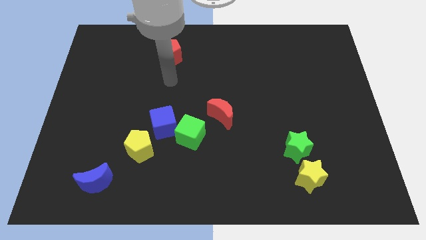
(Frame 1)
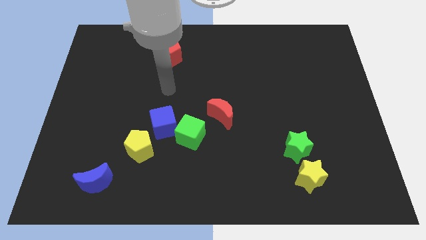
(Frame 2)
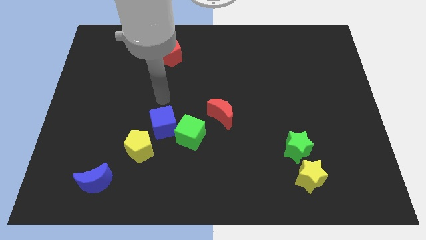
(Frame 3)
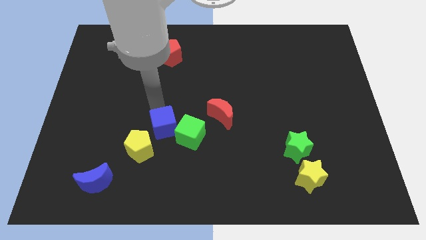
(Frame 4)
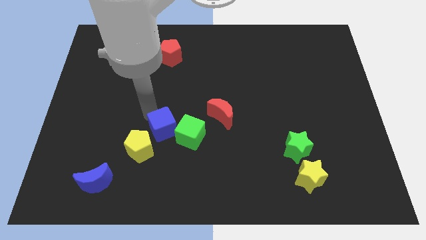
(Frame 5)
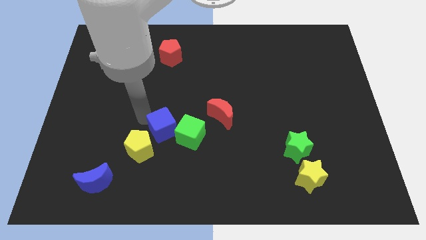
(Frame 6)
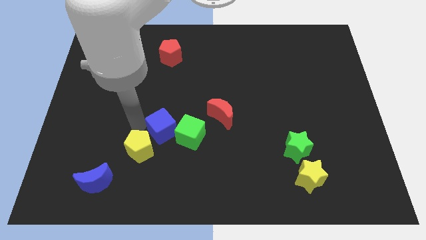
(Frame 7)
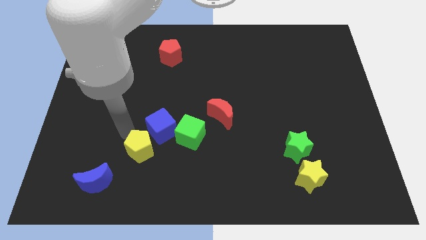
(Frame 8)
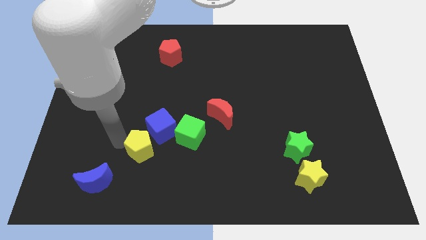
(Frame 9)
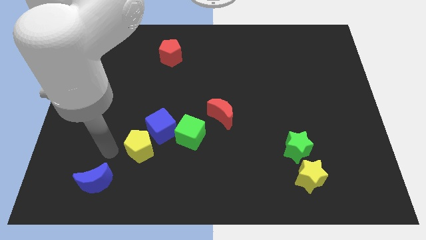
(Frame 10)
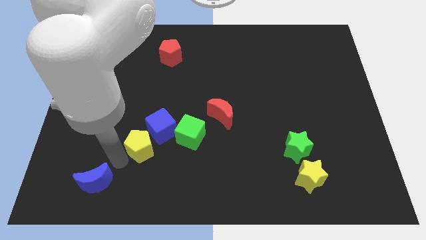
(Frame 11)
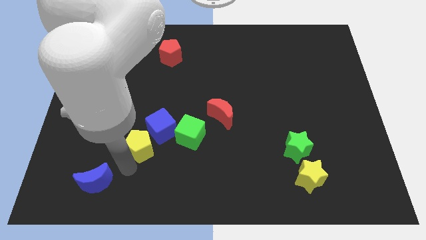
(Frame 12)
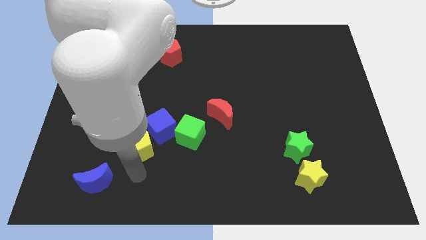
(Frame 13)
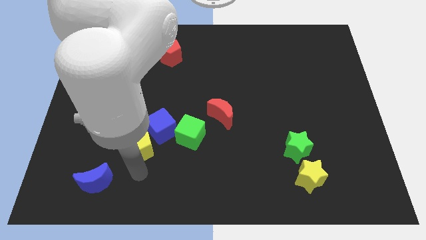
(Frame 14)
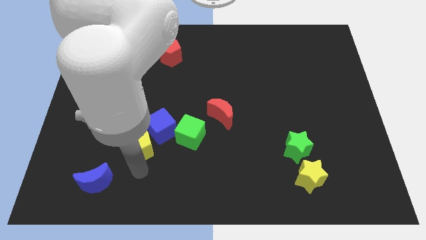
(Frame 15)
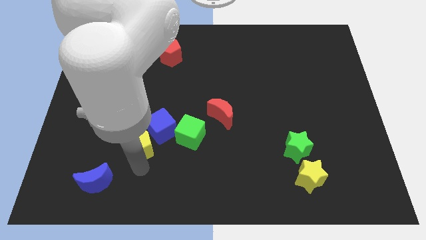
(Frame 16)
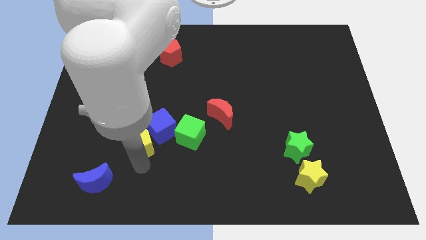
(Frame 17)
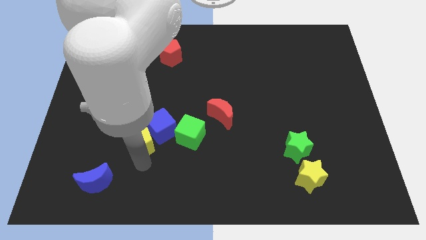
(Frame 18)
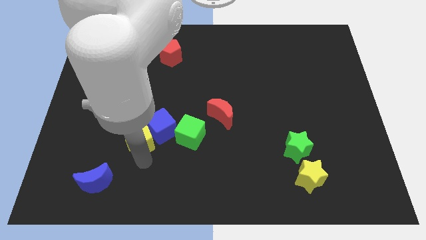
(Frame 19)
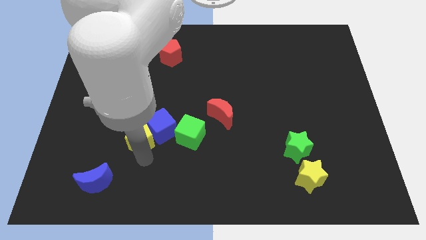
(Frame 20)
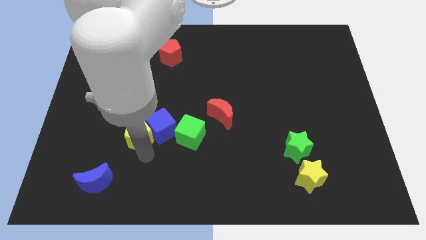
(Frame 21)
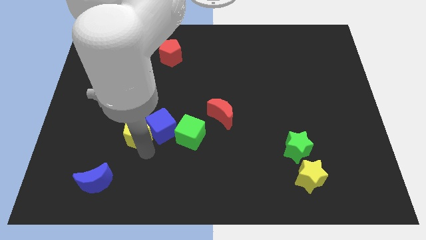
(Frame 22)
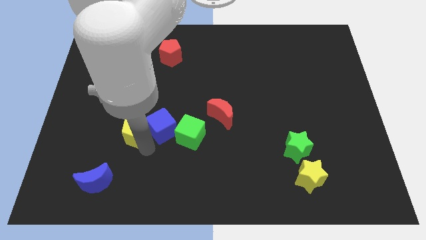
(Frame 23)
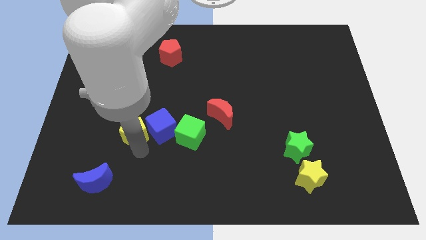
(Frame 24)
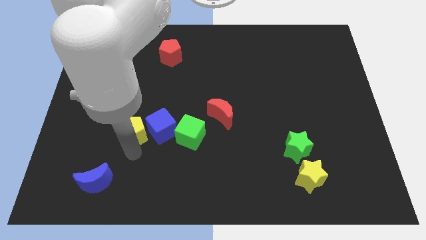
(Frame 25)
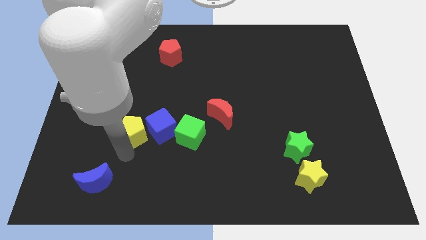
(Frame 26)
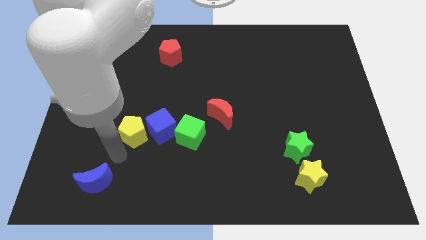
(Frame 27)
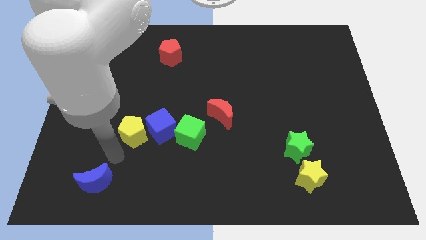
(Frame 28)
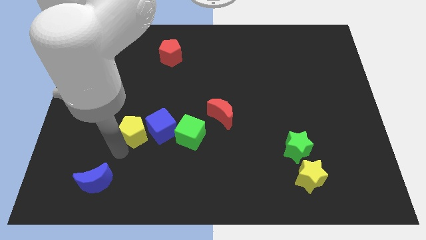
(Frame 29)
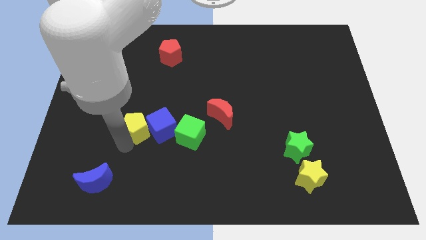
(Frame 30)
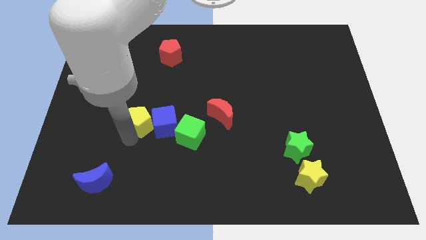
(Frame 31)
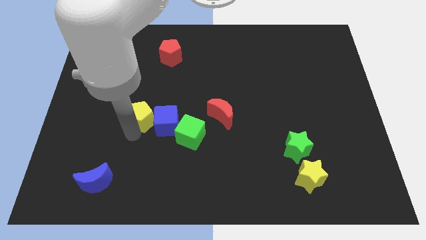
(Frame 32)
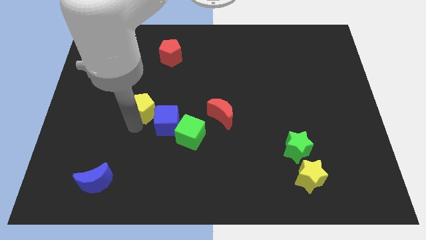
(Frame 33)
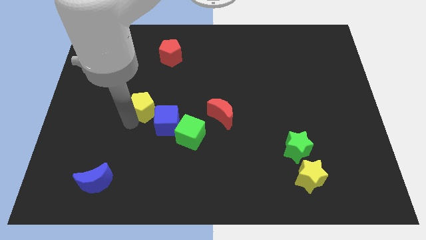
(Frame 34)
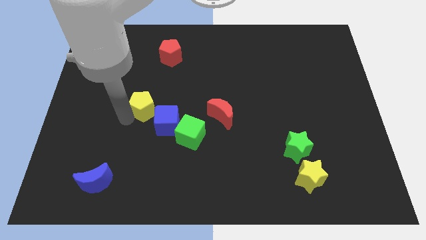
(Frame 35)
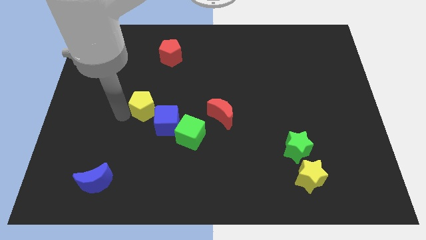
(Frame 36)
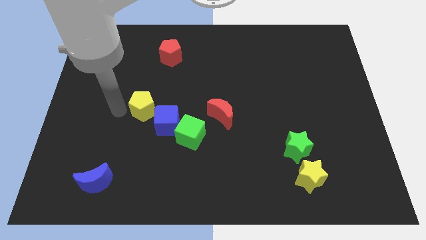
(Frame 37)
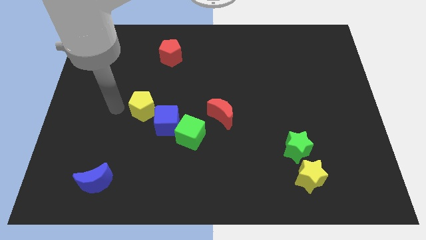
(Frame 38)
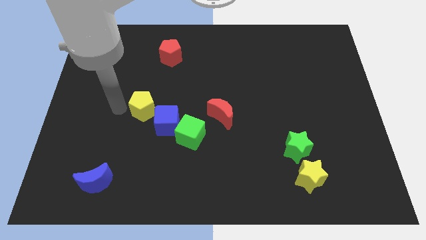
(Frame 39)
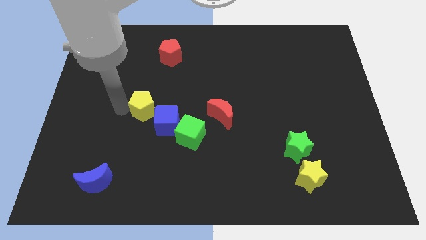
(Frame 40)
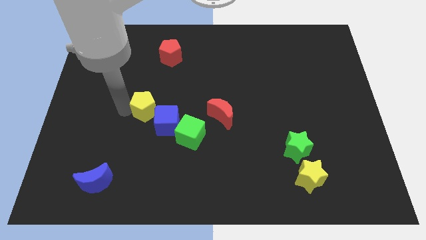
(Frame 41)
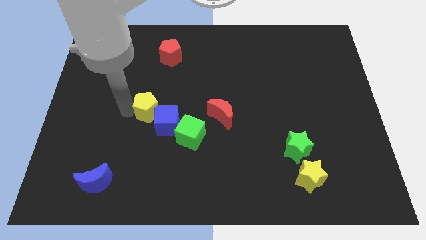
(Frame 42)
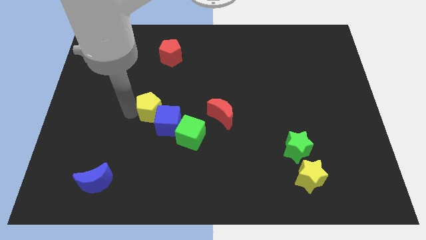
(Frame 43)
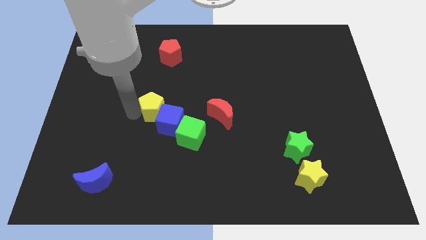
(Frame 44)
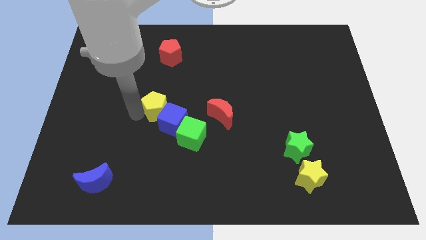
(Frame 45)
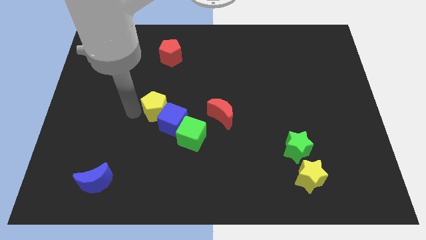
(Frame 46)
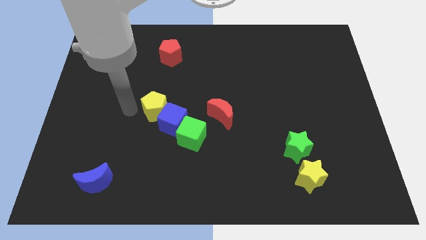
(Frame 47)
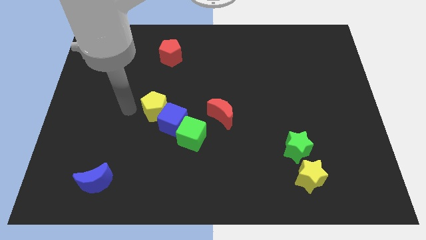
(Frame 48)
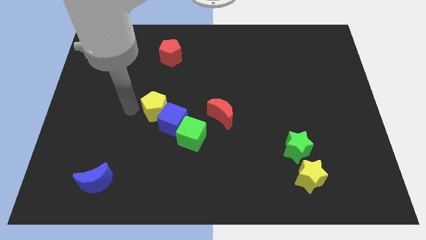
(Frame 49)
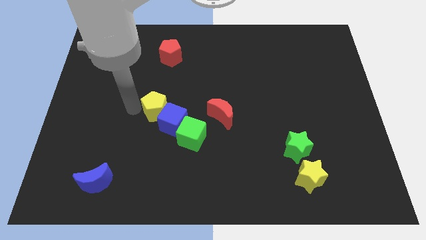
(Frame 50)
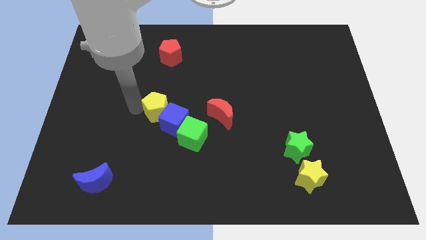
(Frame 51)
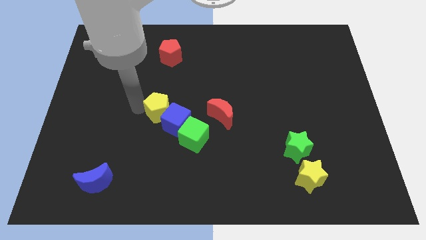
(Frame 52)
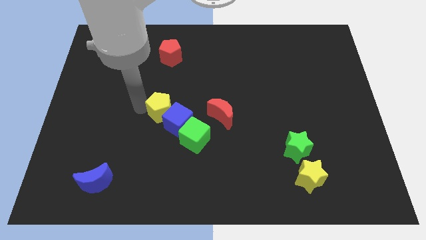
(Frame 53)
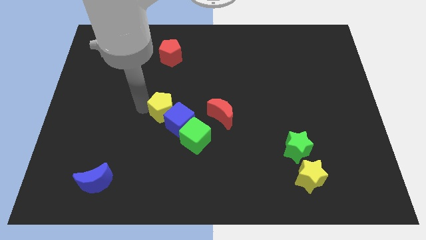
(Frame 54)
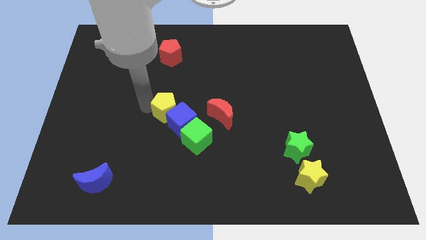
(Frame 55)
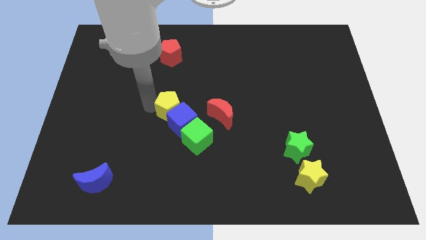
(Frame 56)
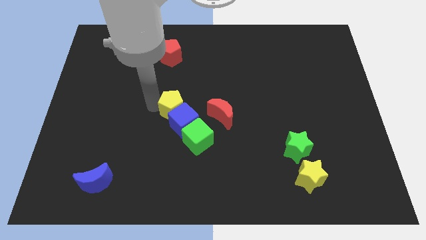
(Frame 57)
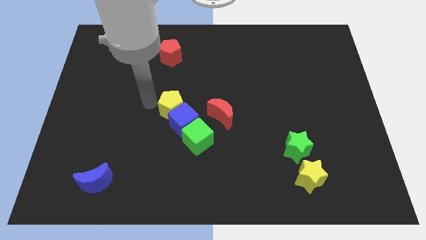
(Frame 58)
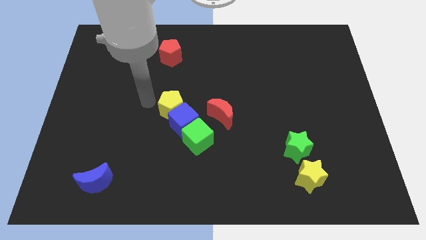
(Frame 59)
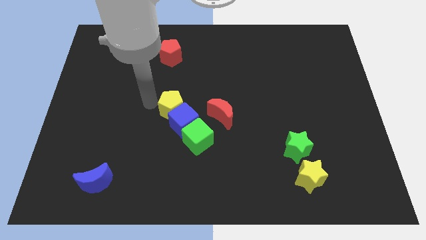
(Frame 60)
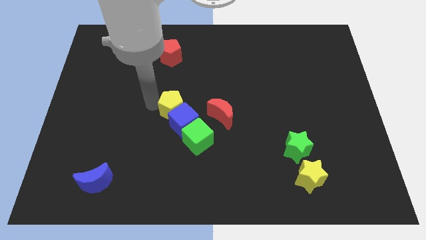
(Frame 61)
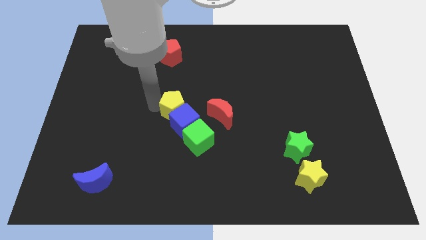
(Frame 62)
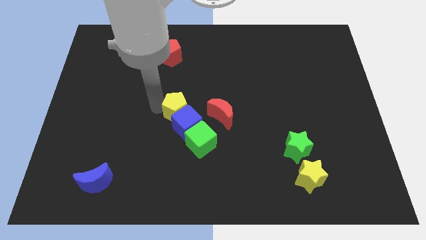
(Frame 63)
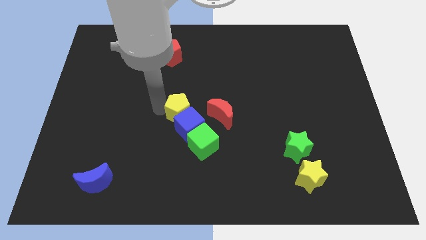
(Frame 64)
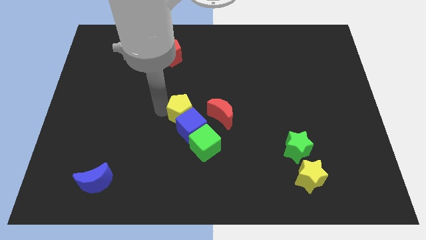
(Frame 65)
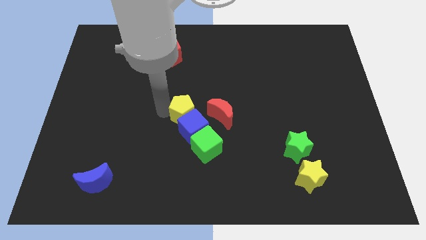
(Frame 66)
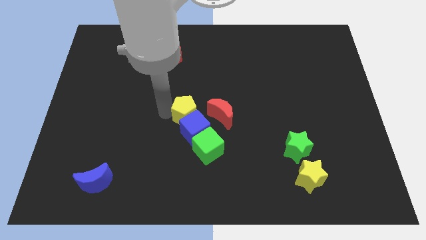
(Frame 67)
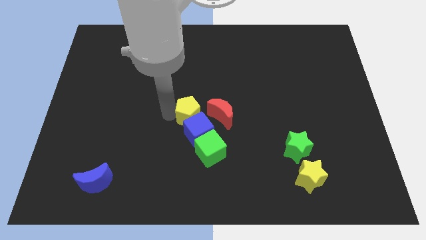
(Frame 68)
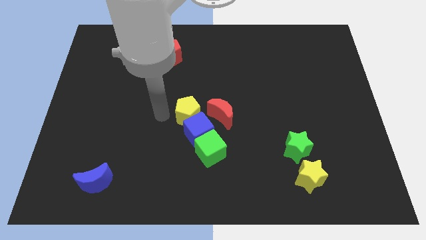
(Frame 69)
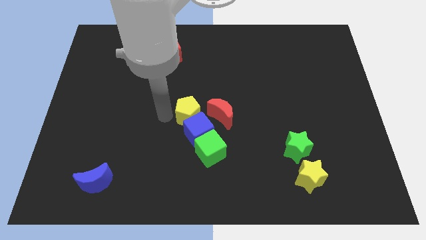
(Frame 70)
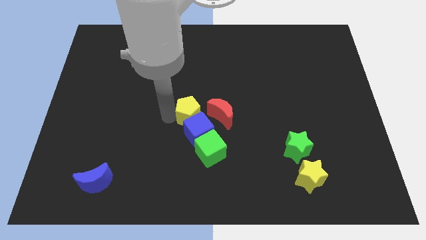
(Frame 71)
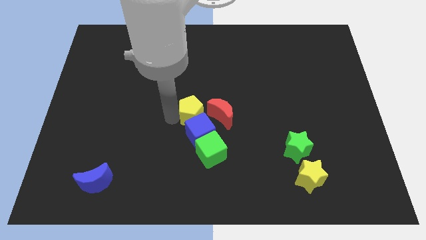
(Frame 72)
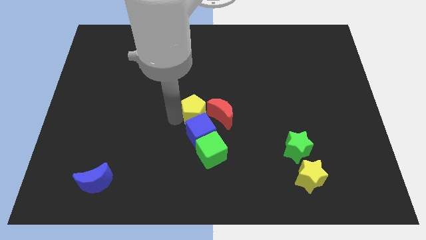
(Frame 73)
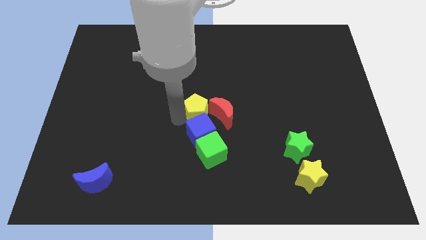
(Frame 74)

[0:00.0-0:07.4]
put the yellow pentagon to the red moon
